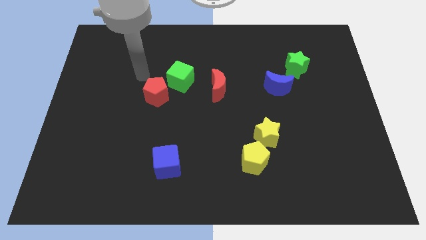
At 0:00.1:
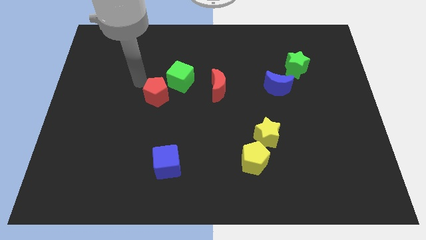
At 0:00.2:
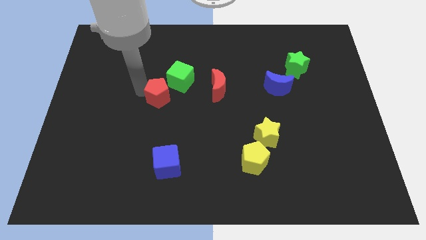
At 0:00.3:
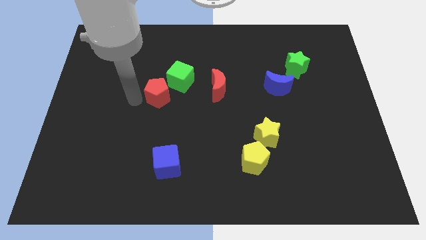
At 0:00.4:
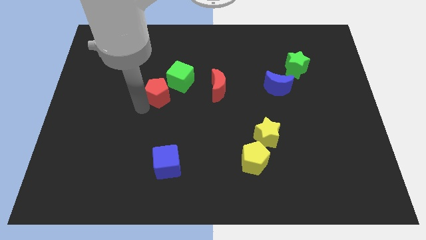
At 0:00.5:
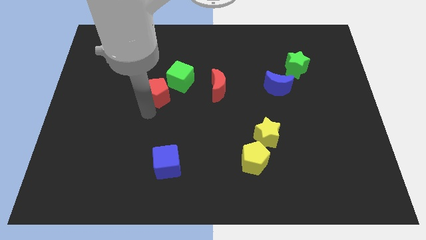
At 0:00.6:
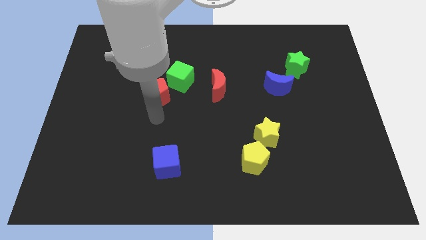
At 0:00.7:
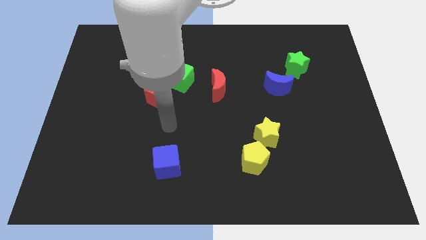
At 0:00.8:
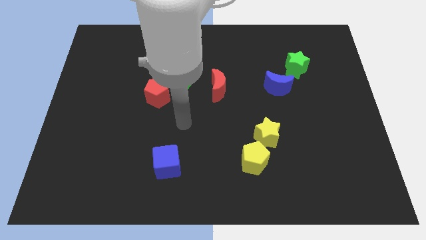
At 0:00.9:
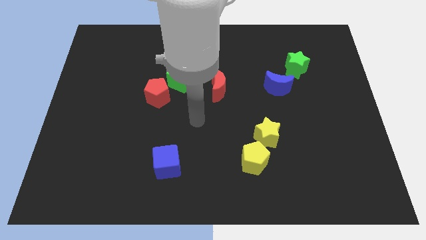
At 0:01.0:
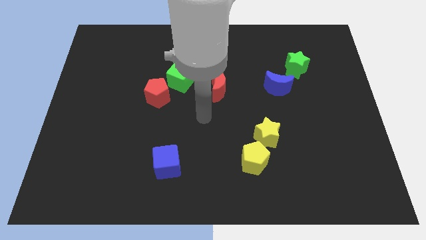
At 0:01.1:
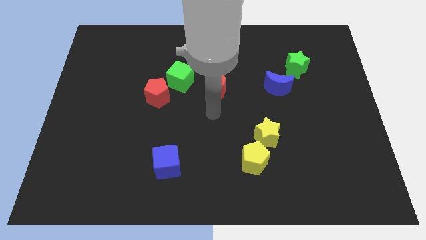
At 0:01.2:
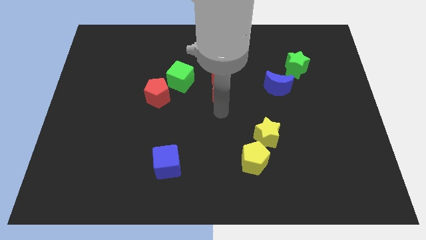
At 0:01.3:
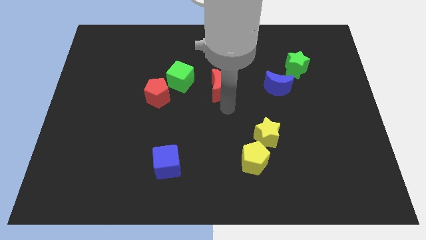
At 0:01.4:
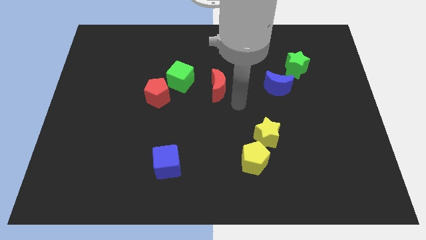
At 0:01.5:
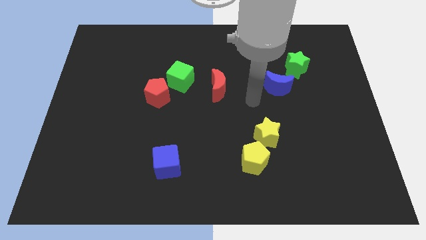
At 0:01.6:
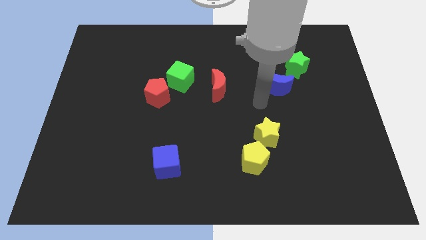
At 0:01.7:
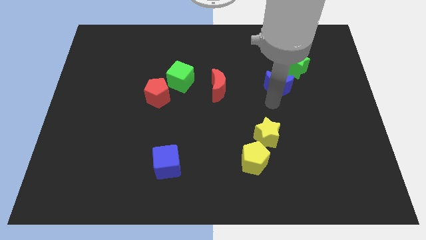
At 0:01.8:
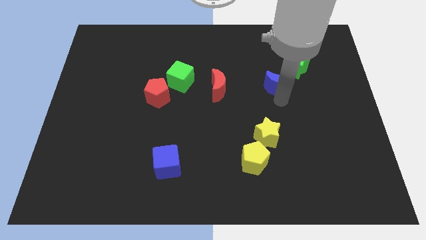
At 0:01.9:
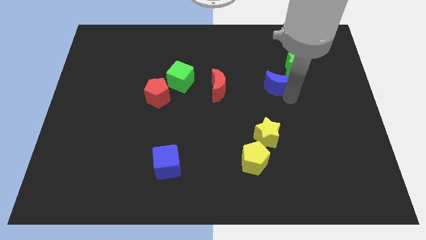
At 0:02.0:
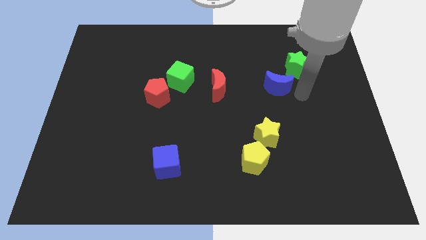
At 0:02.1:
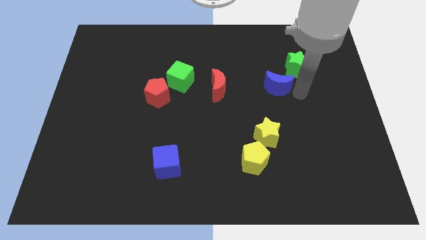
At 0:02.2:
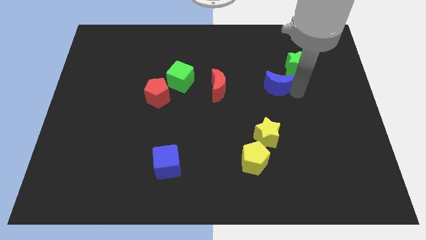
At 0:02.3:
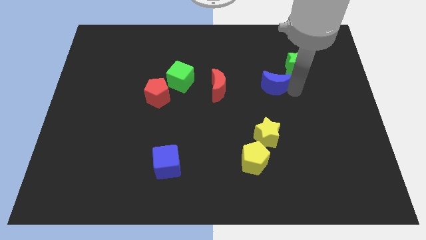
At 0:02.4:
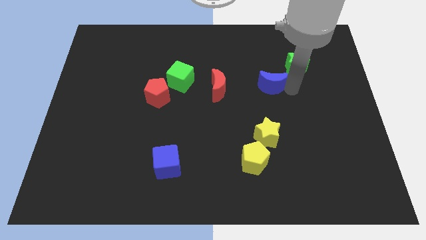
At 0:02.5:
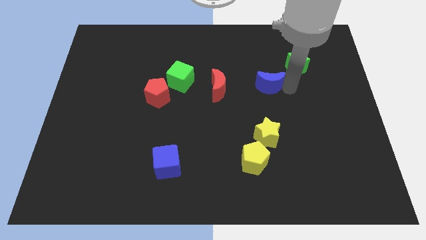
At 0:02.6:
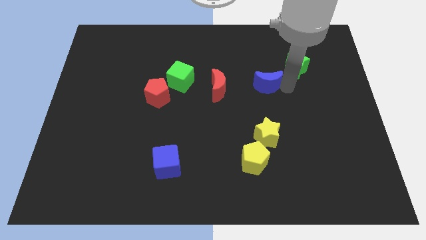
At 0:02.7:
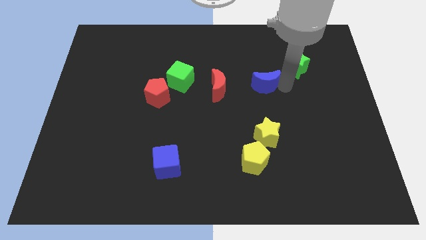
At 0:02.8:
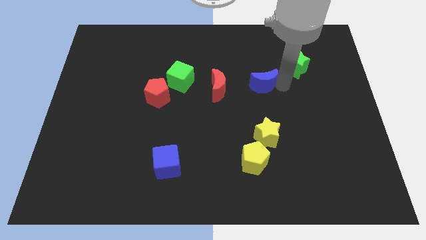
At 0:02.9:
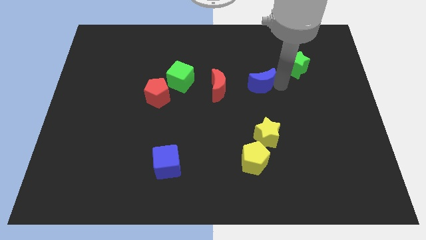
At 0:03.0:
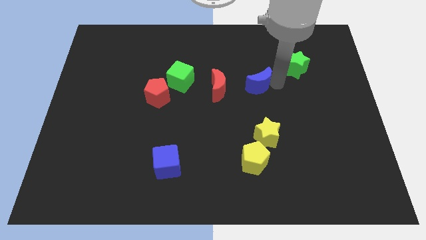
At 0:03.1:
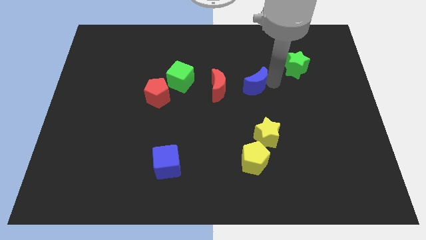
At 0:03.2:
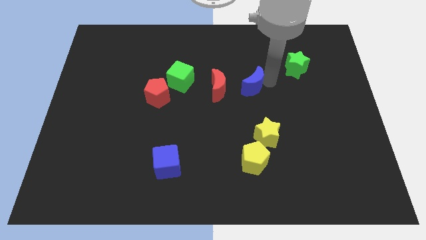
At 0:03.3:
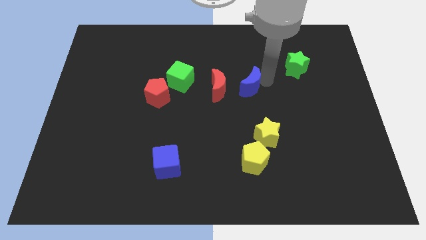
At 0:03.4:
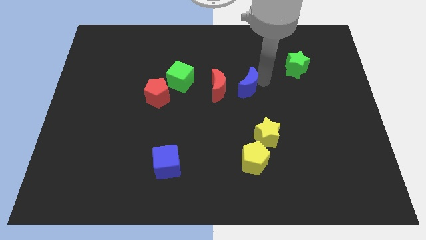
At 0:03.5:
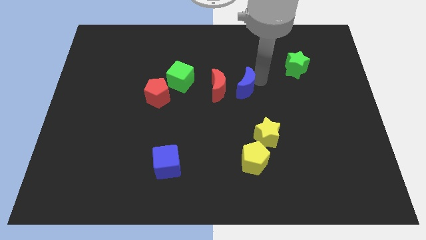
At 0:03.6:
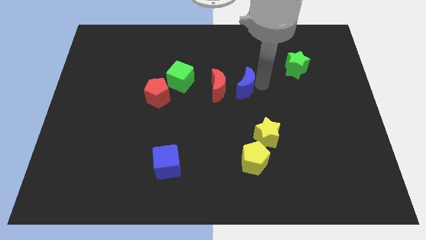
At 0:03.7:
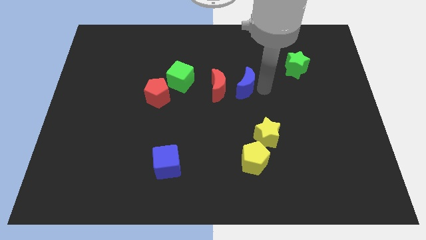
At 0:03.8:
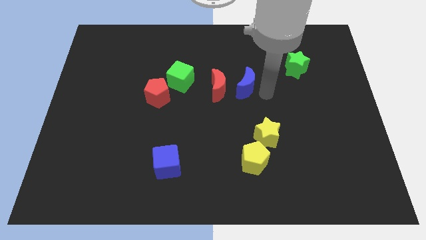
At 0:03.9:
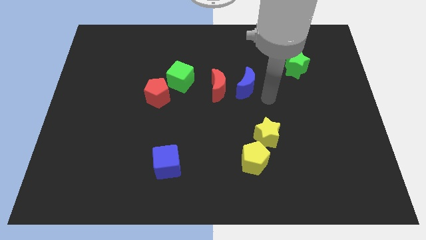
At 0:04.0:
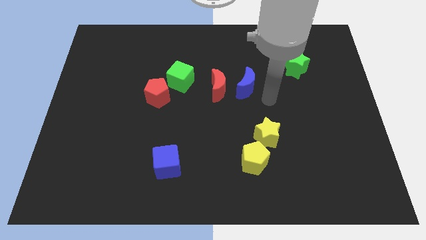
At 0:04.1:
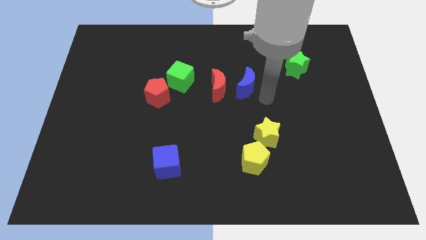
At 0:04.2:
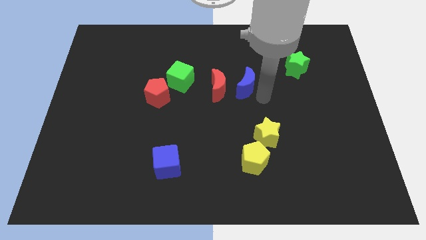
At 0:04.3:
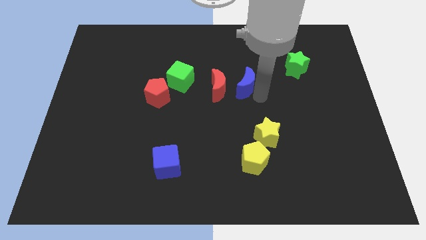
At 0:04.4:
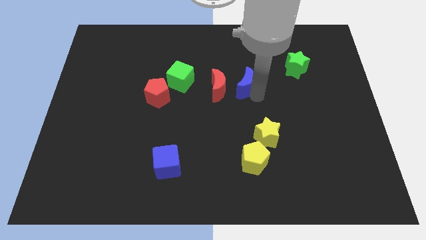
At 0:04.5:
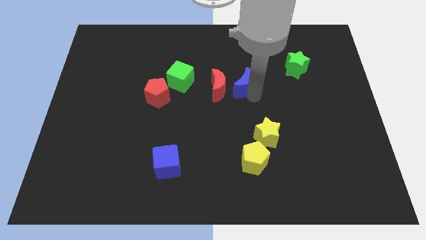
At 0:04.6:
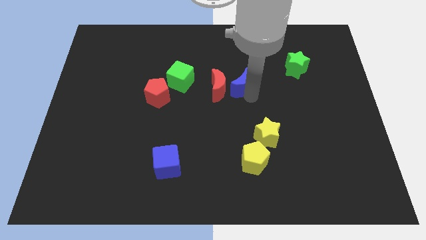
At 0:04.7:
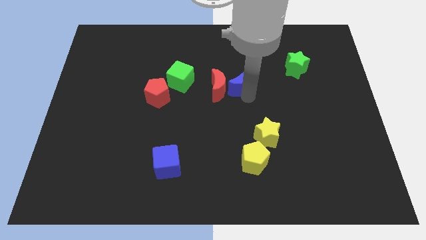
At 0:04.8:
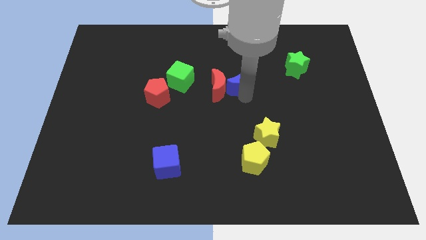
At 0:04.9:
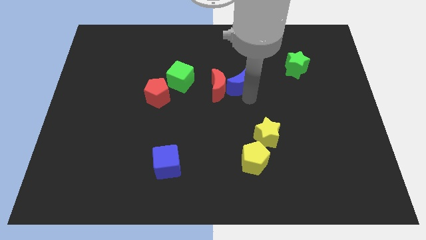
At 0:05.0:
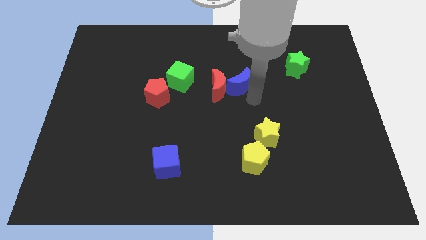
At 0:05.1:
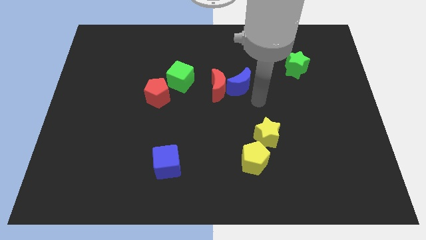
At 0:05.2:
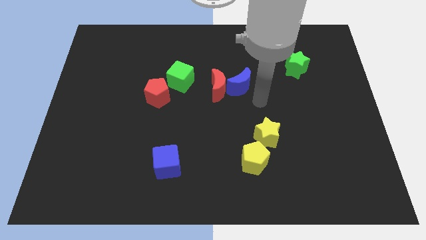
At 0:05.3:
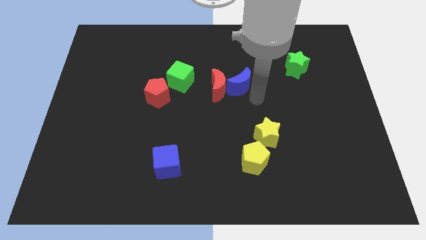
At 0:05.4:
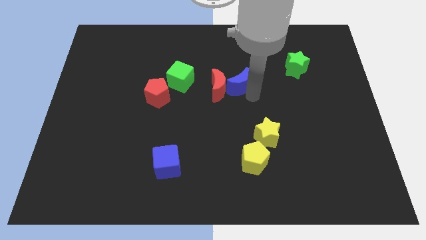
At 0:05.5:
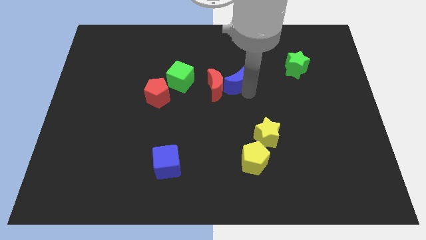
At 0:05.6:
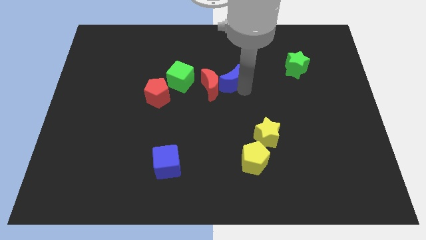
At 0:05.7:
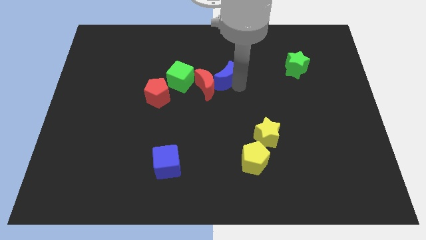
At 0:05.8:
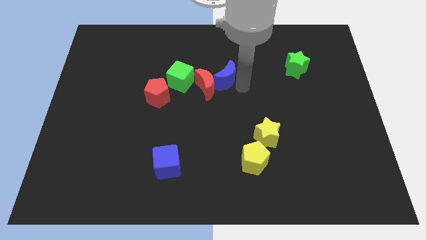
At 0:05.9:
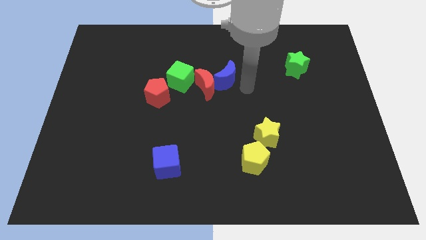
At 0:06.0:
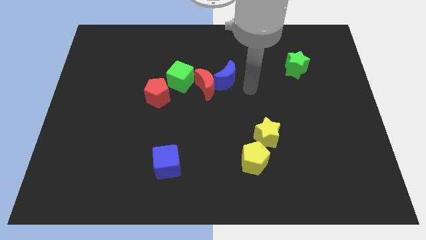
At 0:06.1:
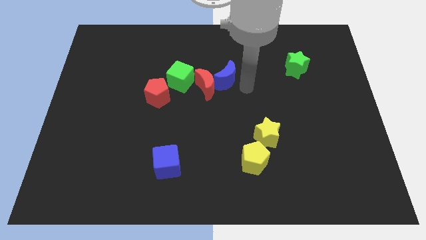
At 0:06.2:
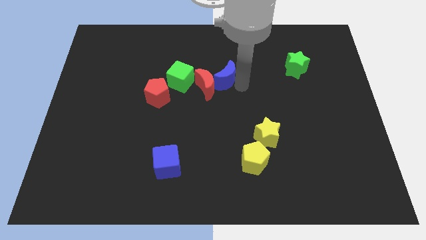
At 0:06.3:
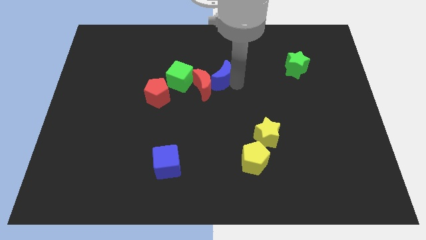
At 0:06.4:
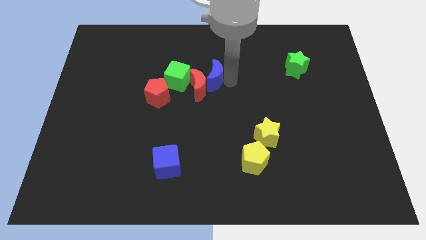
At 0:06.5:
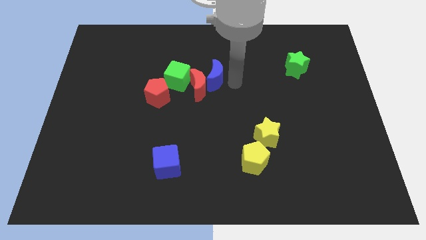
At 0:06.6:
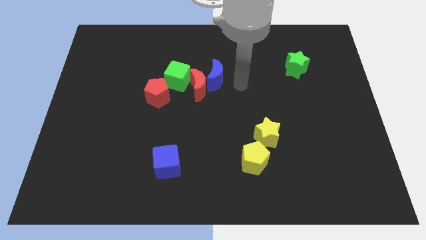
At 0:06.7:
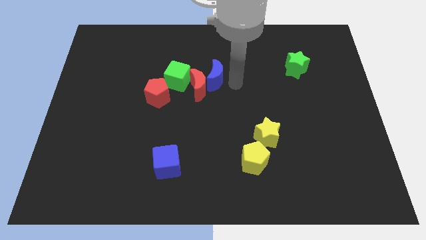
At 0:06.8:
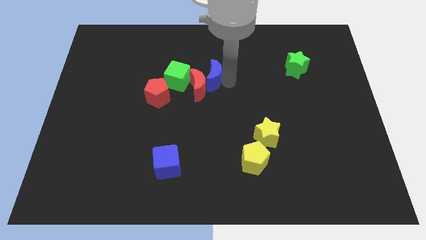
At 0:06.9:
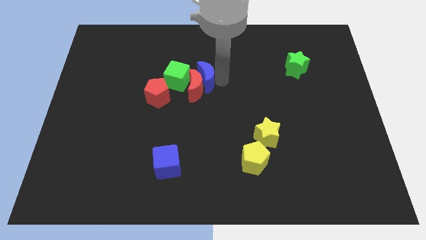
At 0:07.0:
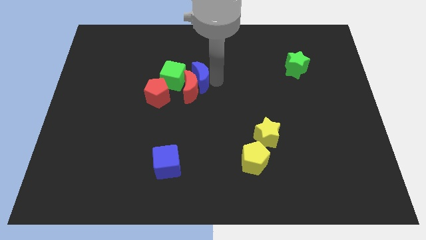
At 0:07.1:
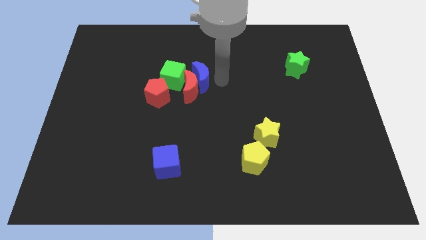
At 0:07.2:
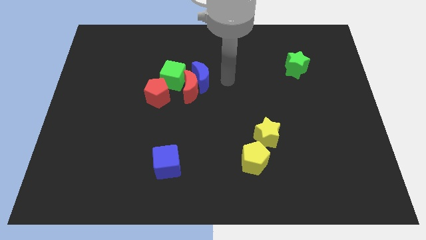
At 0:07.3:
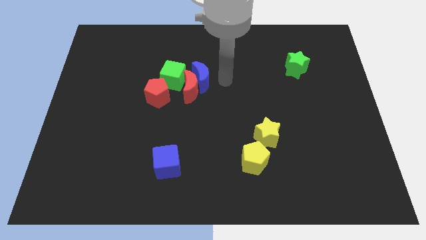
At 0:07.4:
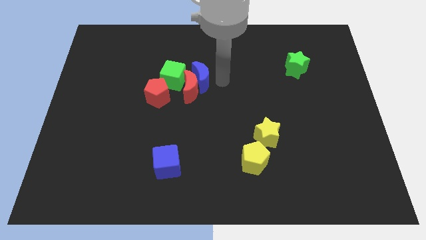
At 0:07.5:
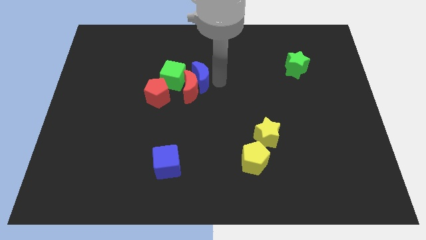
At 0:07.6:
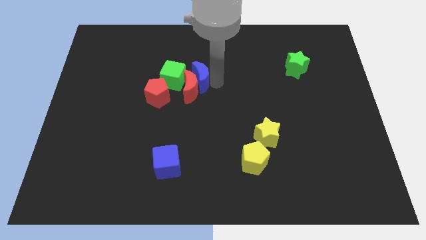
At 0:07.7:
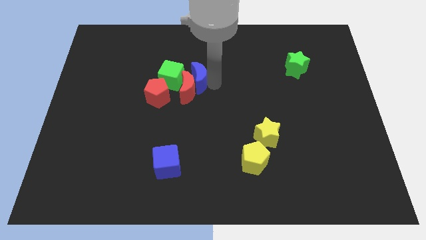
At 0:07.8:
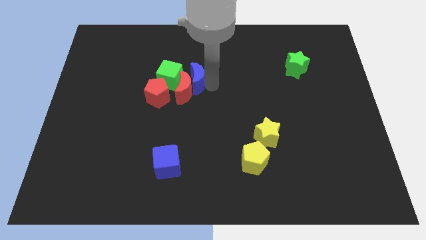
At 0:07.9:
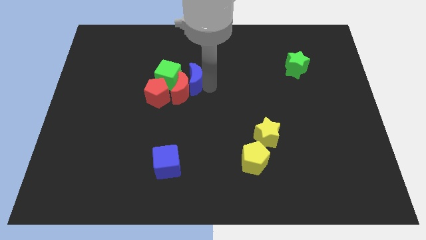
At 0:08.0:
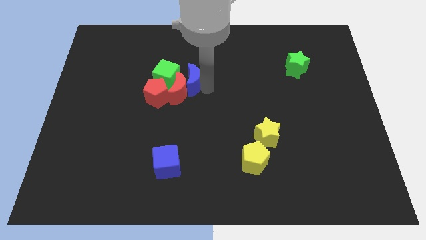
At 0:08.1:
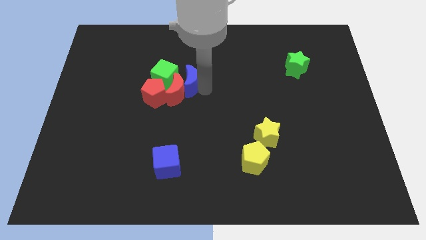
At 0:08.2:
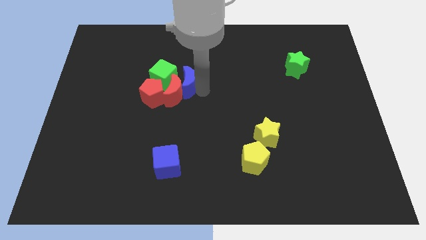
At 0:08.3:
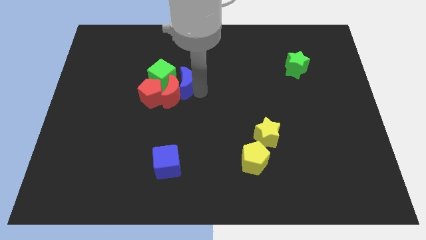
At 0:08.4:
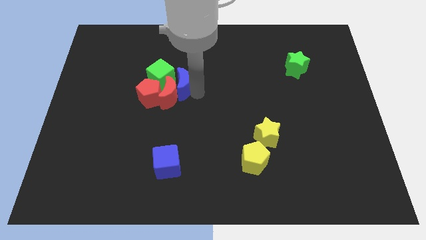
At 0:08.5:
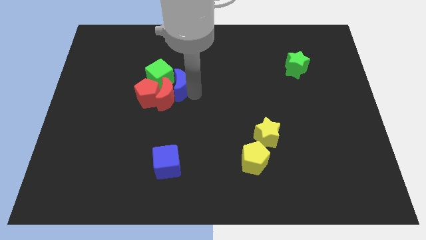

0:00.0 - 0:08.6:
slide the blue moon close to the green cube
